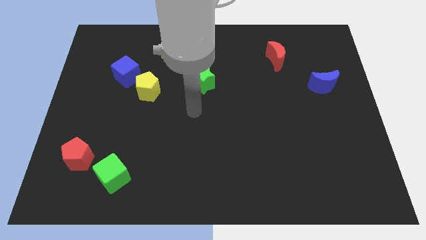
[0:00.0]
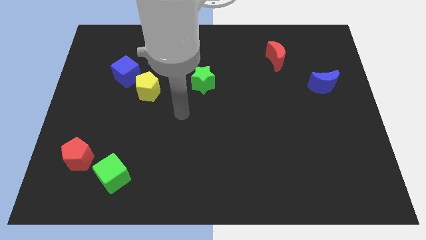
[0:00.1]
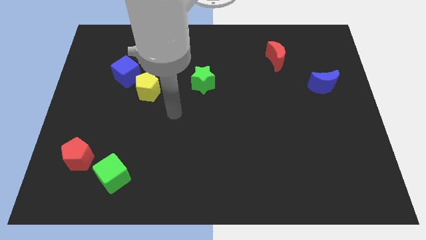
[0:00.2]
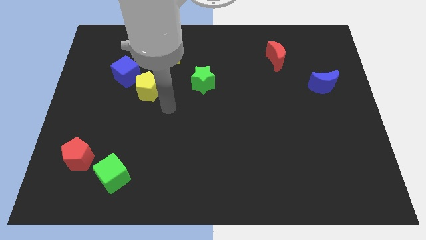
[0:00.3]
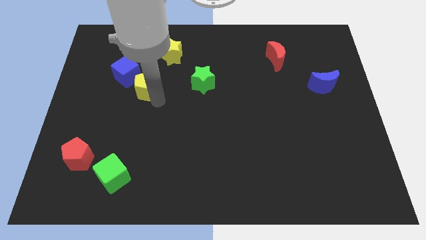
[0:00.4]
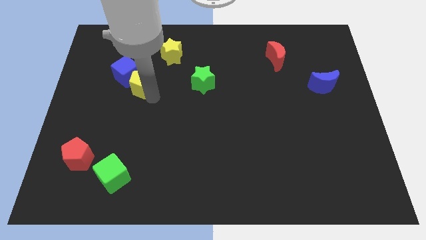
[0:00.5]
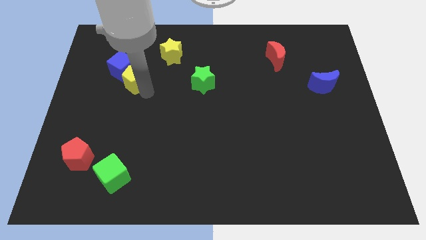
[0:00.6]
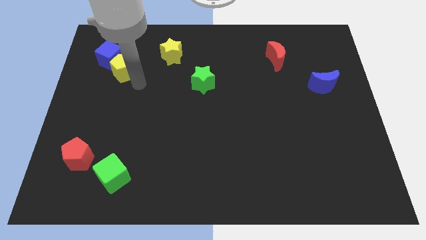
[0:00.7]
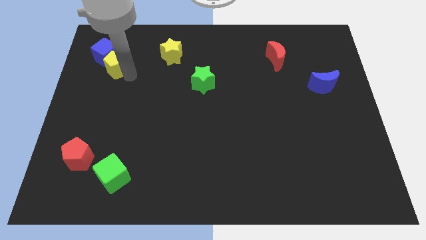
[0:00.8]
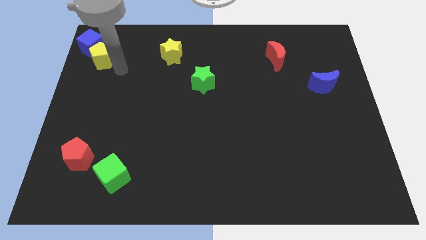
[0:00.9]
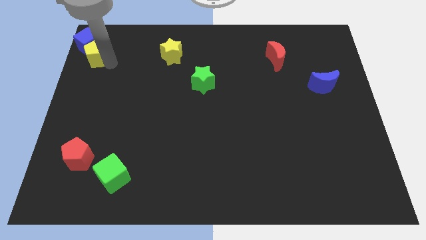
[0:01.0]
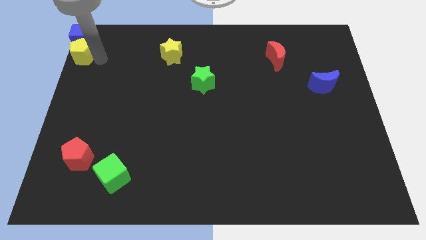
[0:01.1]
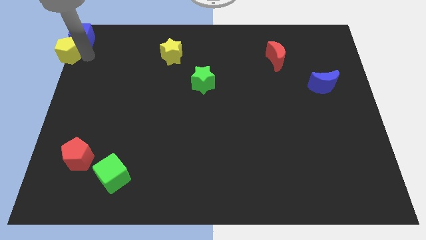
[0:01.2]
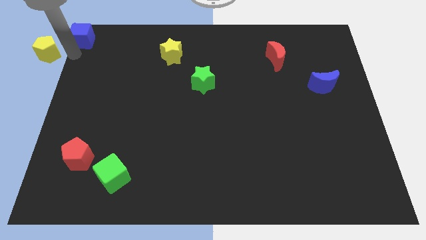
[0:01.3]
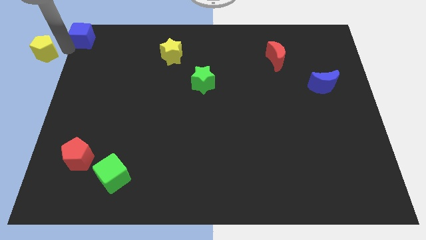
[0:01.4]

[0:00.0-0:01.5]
move the blue cube away from the yellow pentagon

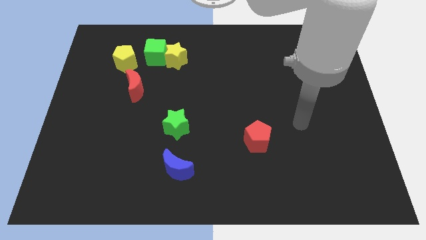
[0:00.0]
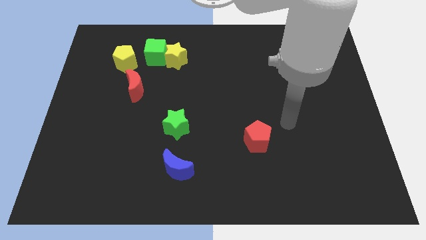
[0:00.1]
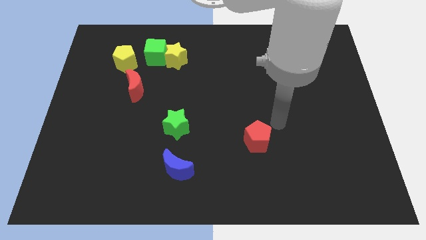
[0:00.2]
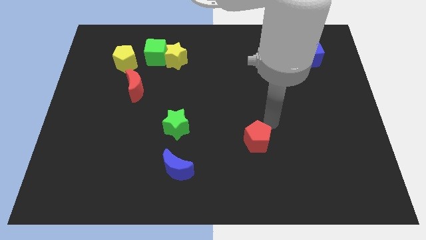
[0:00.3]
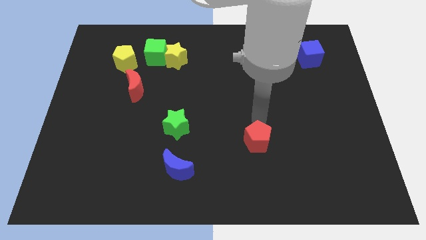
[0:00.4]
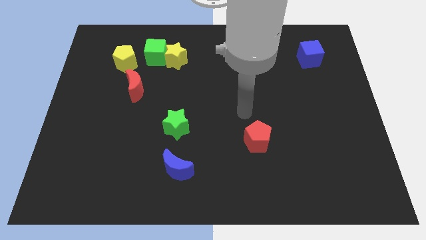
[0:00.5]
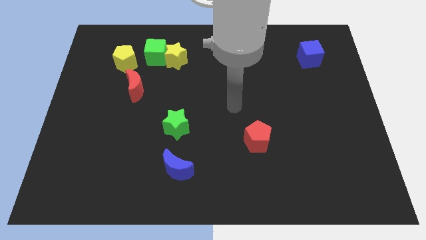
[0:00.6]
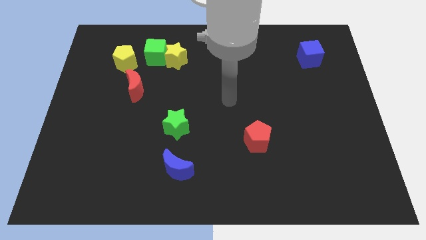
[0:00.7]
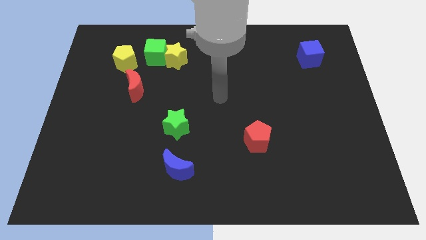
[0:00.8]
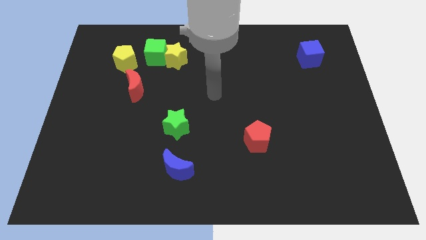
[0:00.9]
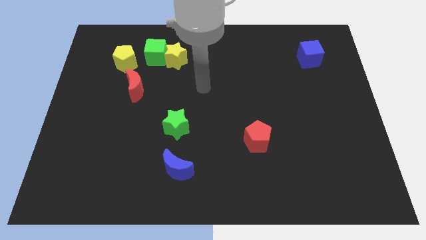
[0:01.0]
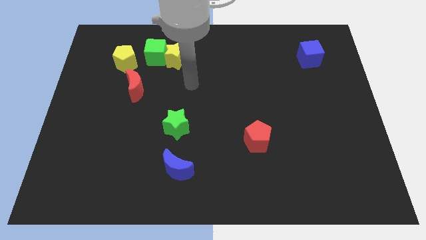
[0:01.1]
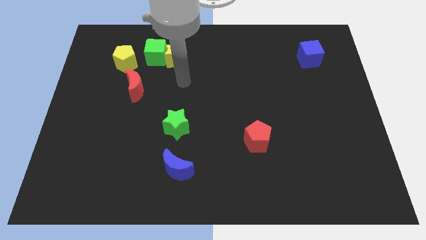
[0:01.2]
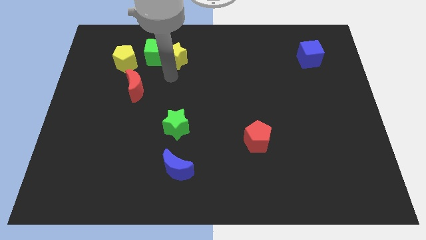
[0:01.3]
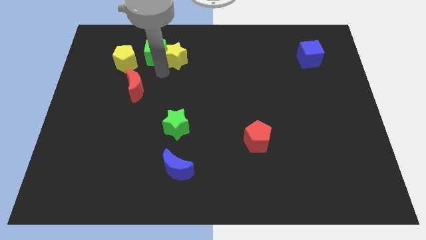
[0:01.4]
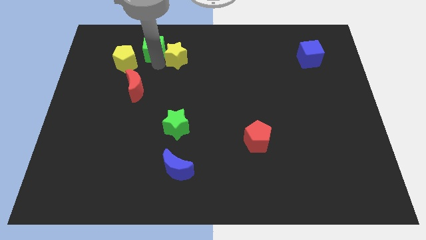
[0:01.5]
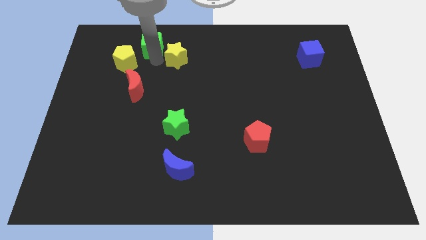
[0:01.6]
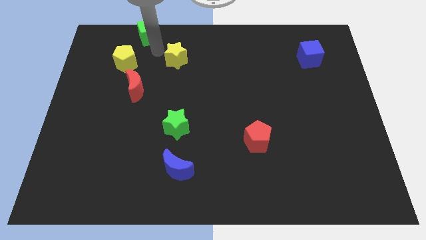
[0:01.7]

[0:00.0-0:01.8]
separate the yellow star from the green cube

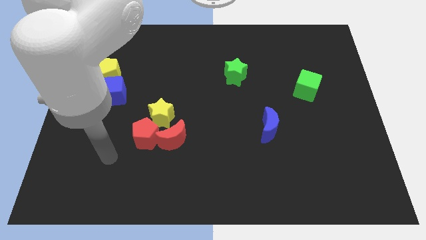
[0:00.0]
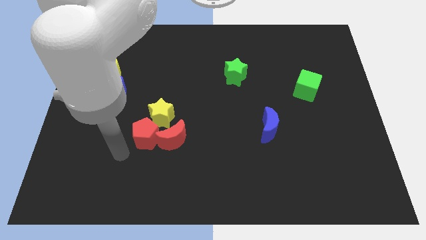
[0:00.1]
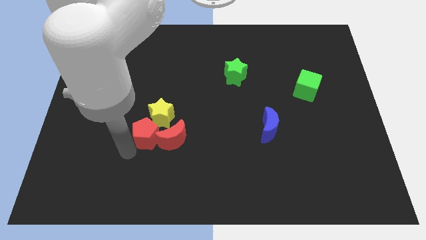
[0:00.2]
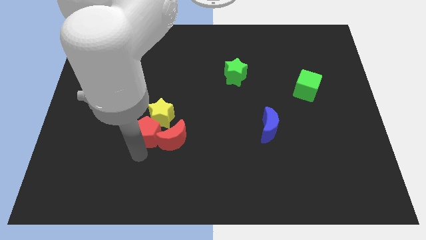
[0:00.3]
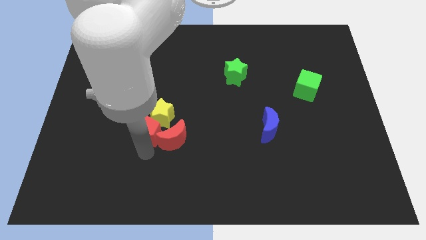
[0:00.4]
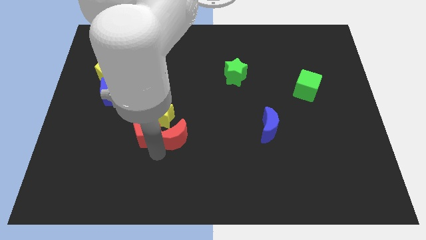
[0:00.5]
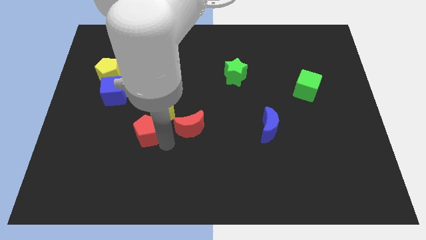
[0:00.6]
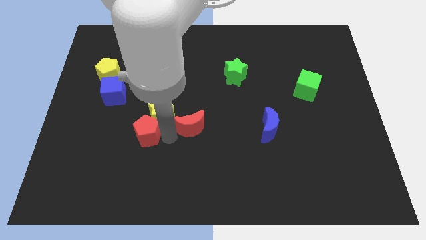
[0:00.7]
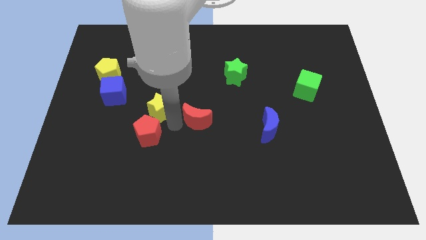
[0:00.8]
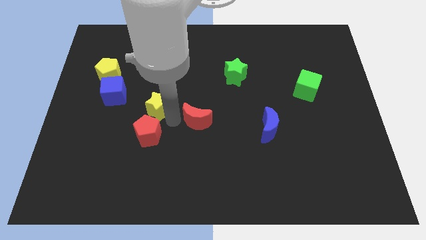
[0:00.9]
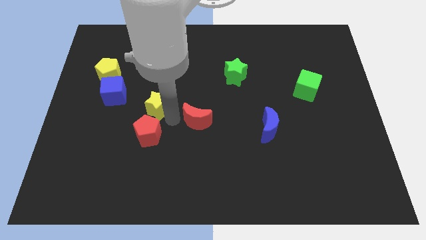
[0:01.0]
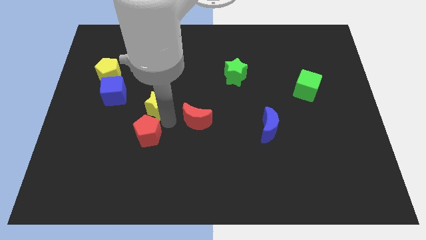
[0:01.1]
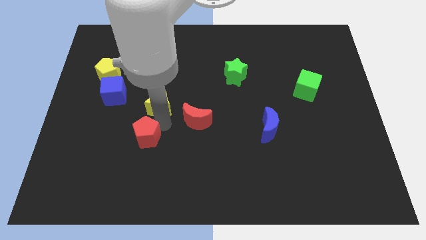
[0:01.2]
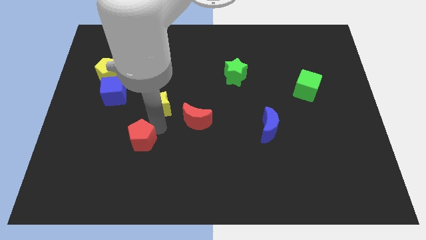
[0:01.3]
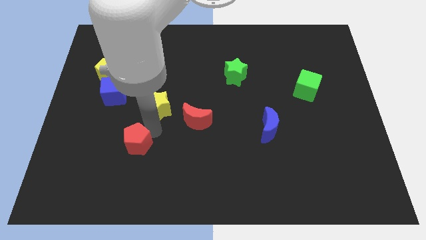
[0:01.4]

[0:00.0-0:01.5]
pull the red pentagon apart from the yellow star and red moon

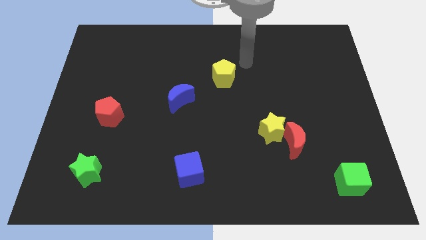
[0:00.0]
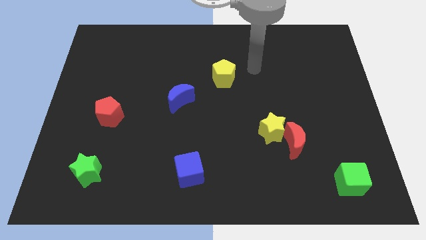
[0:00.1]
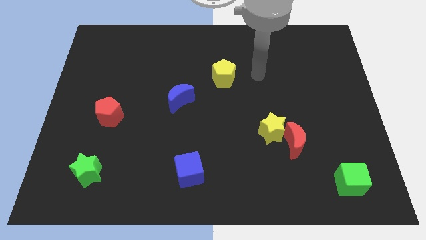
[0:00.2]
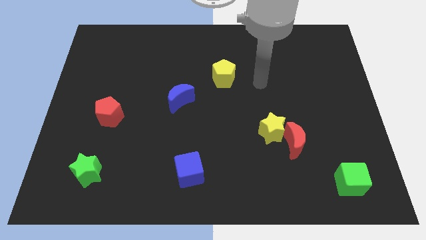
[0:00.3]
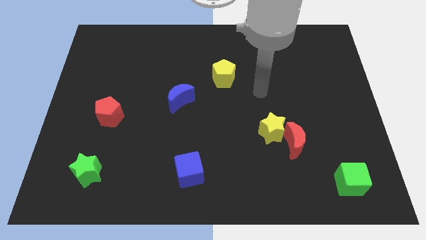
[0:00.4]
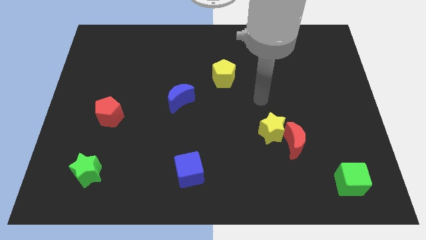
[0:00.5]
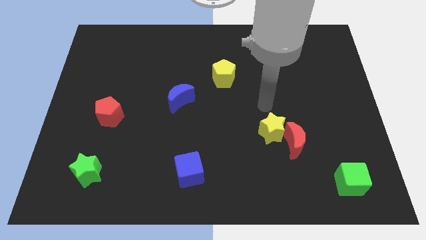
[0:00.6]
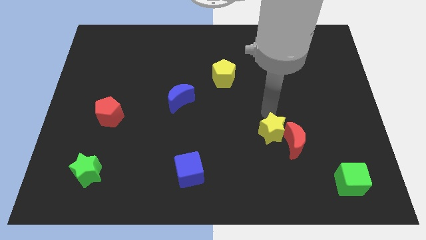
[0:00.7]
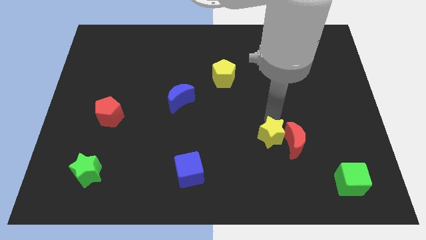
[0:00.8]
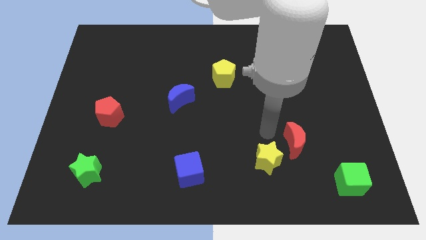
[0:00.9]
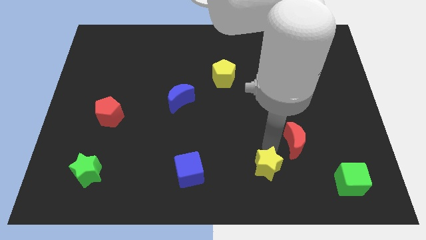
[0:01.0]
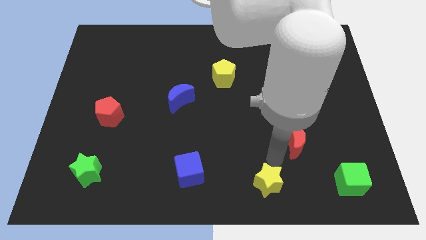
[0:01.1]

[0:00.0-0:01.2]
move the red moon away from the yellow star

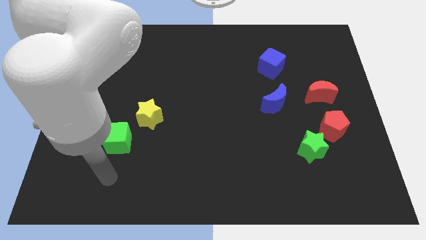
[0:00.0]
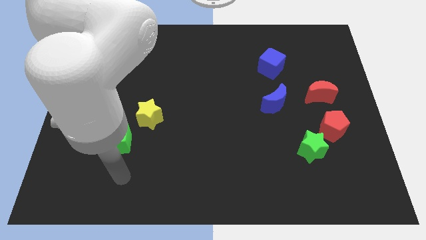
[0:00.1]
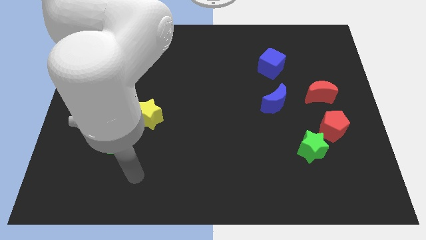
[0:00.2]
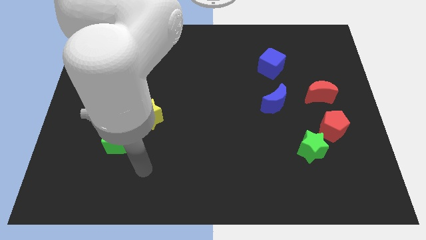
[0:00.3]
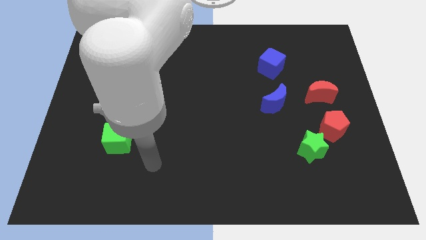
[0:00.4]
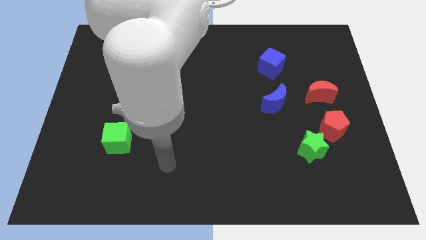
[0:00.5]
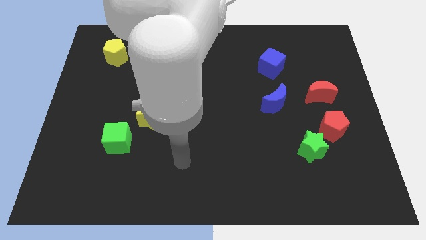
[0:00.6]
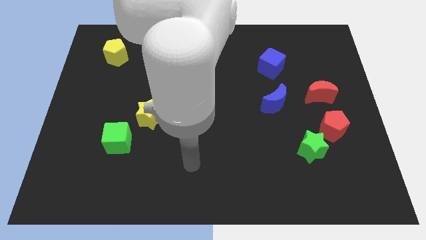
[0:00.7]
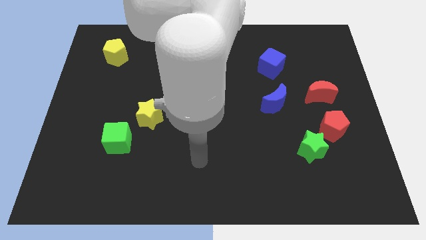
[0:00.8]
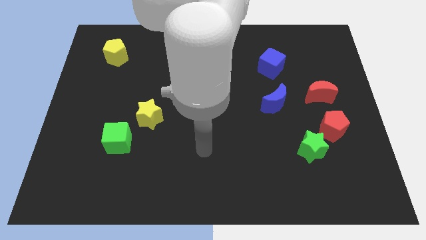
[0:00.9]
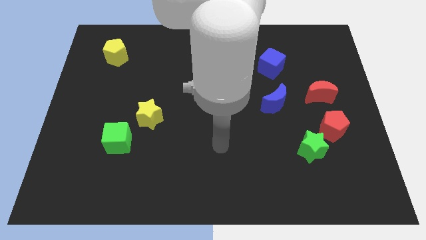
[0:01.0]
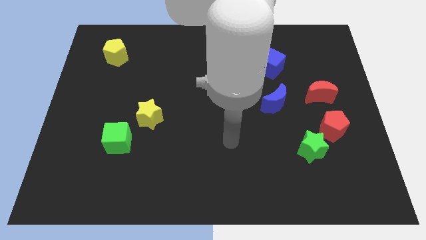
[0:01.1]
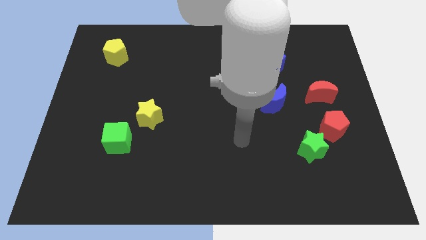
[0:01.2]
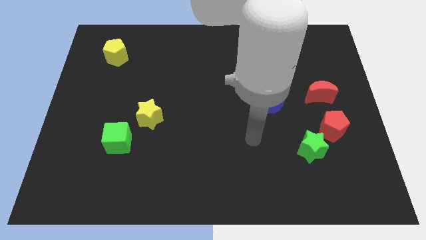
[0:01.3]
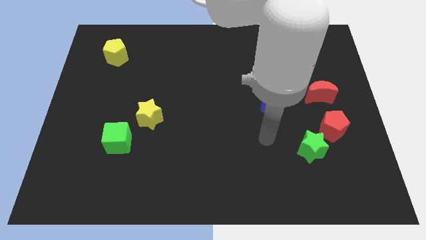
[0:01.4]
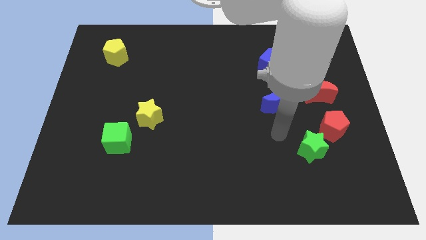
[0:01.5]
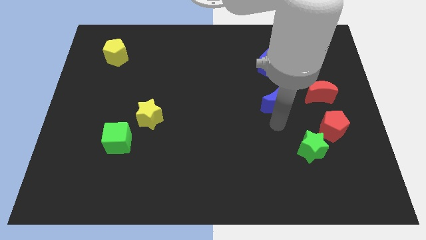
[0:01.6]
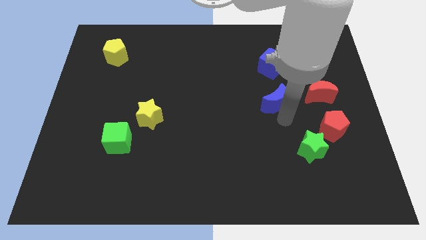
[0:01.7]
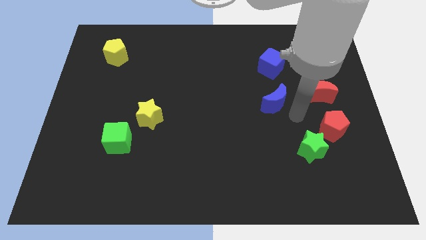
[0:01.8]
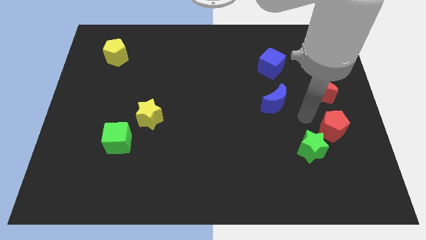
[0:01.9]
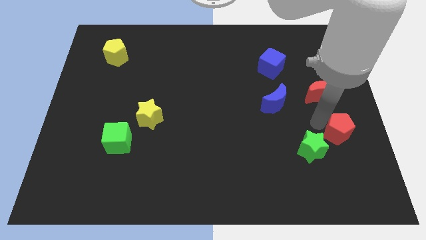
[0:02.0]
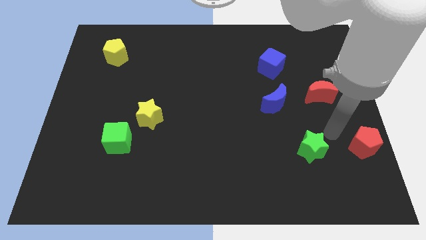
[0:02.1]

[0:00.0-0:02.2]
separate the green star from the red pentagon

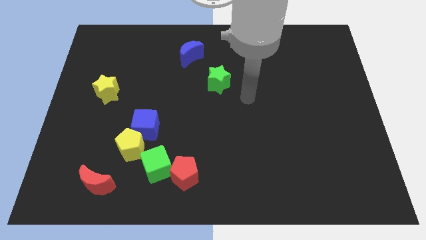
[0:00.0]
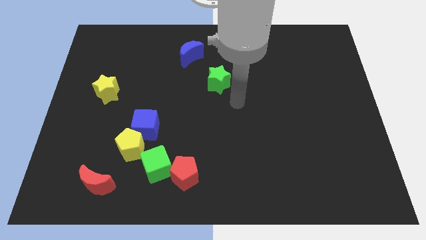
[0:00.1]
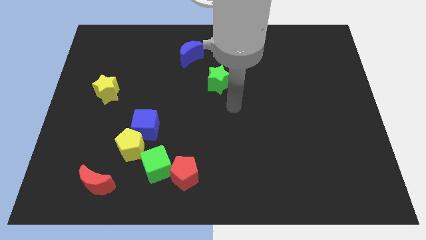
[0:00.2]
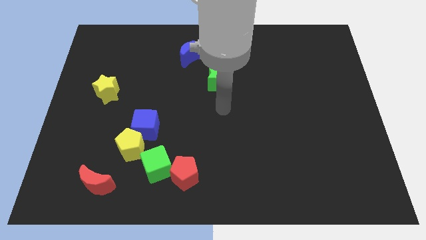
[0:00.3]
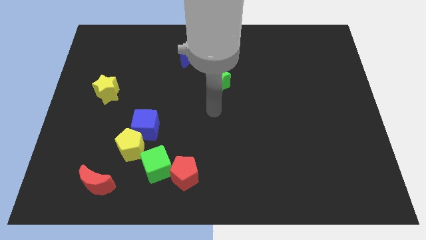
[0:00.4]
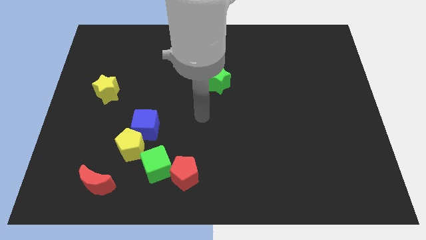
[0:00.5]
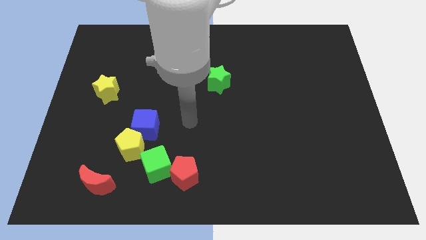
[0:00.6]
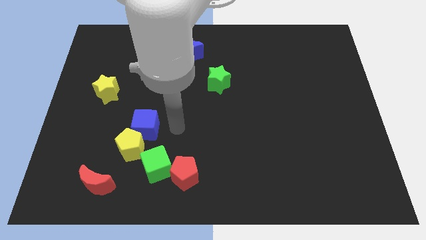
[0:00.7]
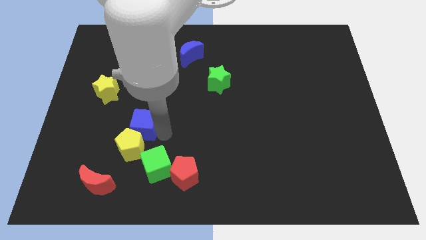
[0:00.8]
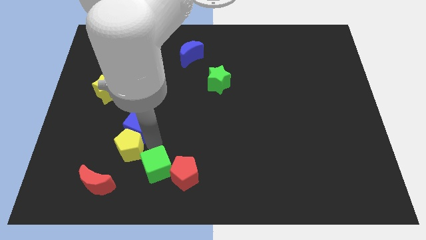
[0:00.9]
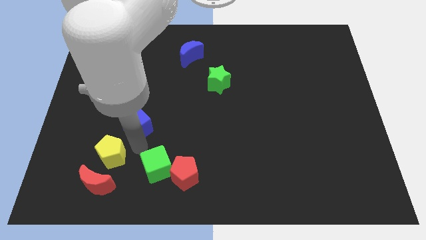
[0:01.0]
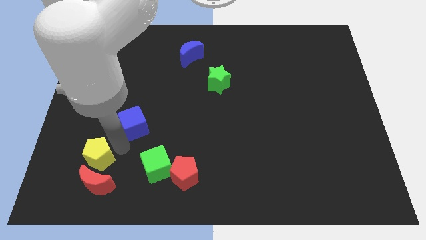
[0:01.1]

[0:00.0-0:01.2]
separate the blue cube from the yellow pentagon
